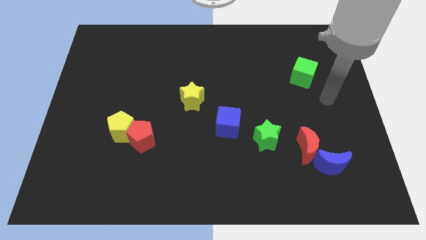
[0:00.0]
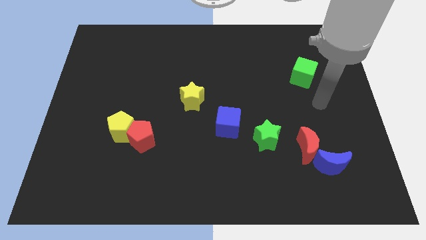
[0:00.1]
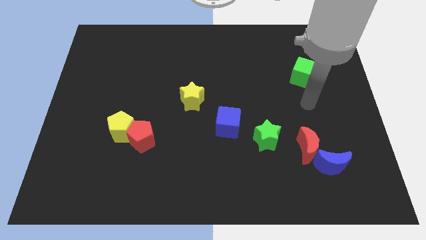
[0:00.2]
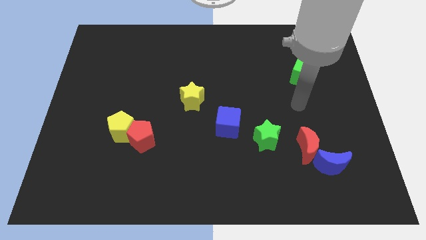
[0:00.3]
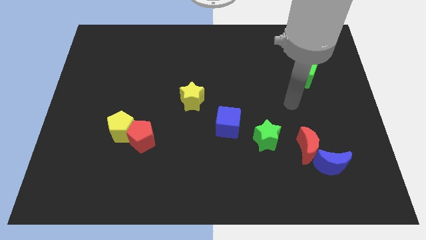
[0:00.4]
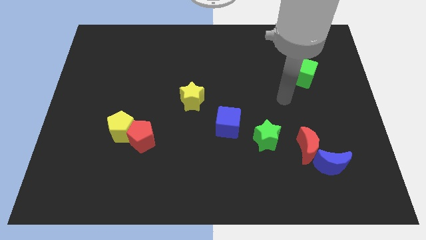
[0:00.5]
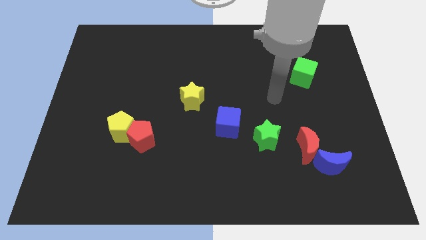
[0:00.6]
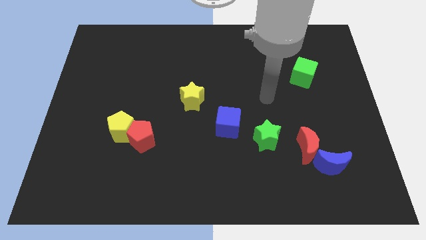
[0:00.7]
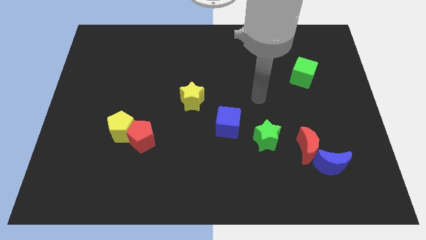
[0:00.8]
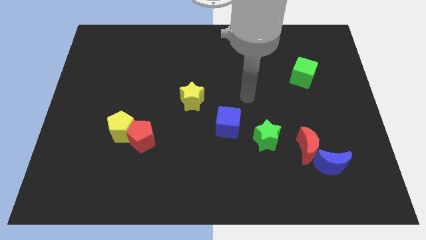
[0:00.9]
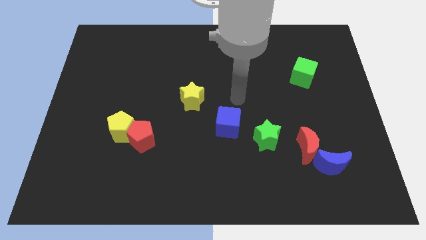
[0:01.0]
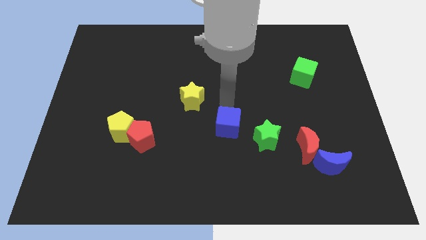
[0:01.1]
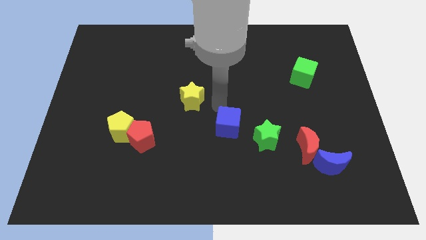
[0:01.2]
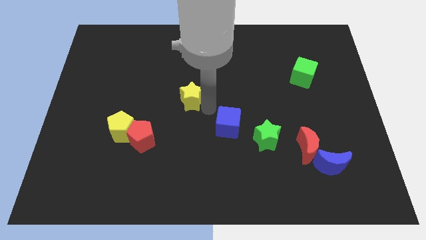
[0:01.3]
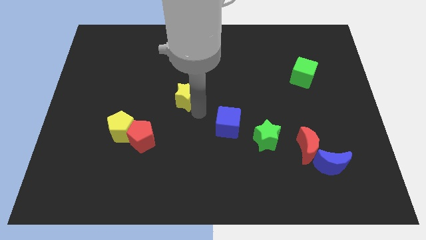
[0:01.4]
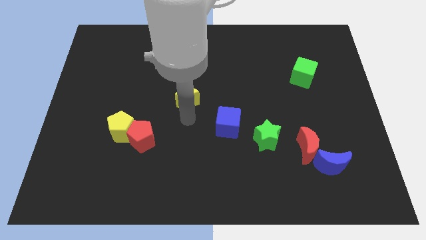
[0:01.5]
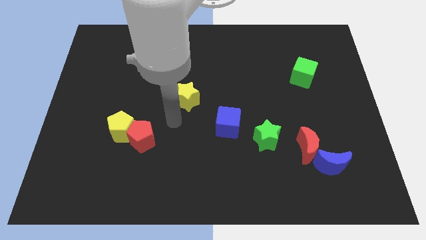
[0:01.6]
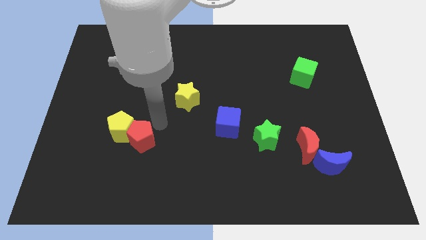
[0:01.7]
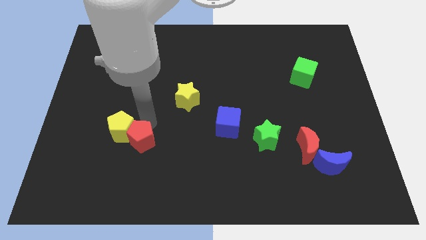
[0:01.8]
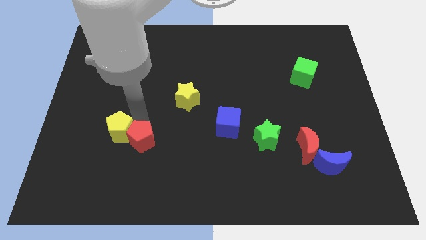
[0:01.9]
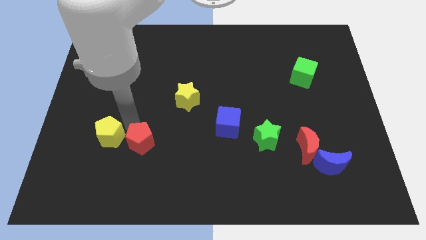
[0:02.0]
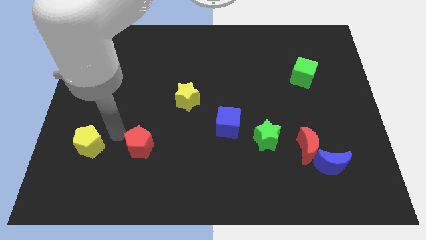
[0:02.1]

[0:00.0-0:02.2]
move the red pentagon away from the yellow pentagon

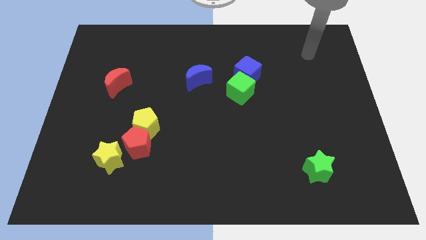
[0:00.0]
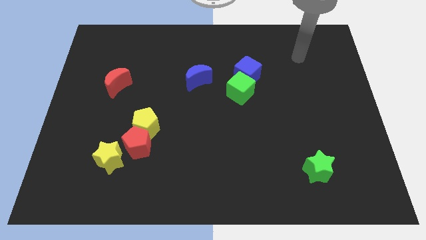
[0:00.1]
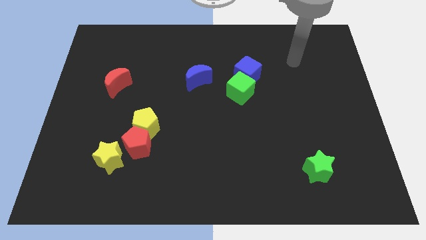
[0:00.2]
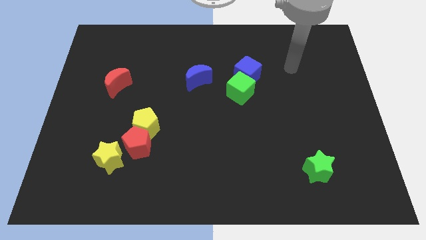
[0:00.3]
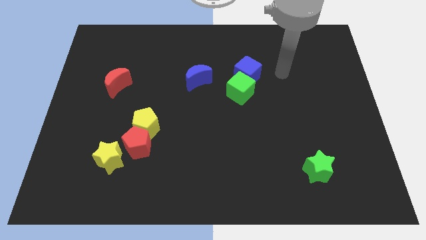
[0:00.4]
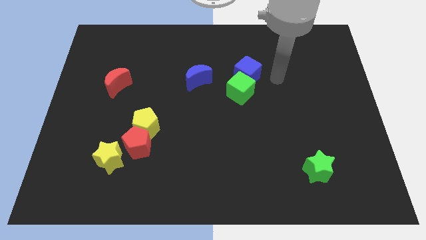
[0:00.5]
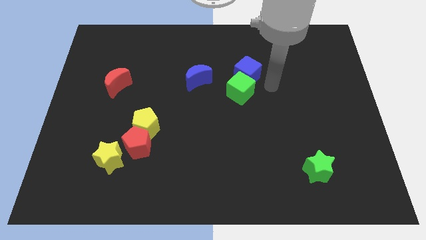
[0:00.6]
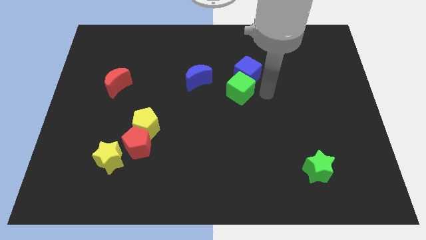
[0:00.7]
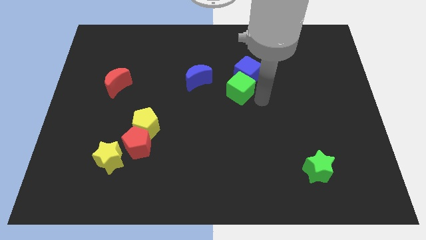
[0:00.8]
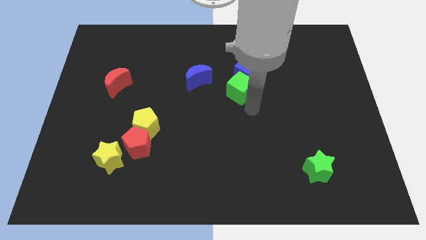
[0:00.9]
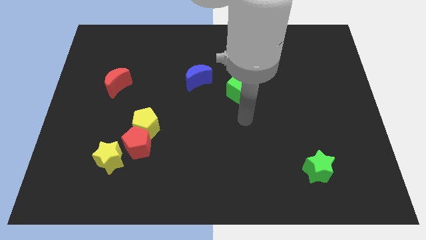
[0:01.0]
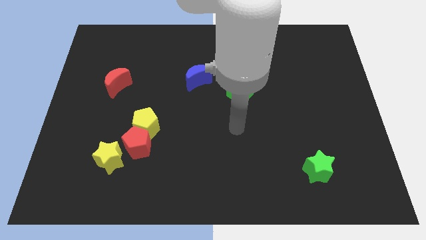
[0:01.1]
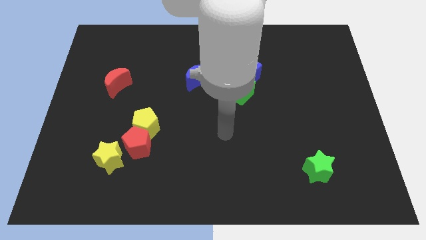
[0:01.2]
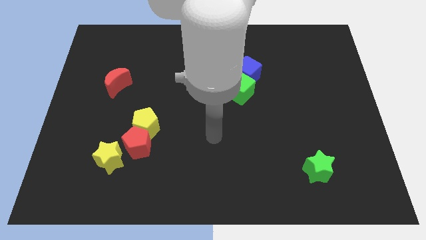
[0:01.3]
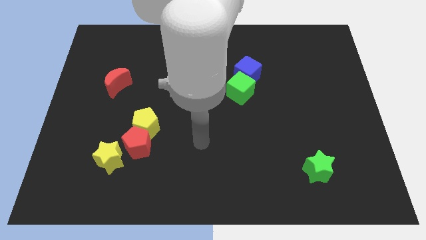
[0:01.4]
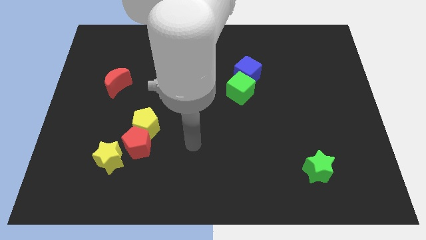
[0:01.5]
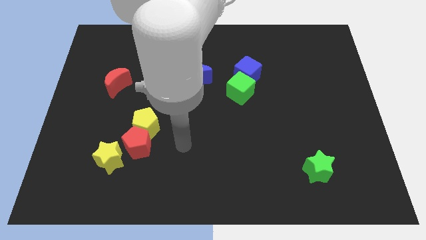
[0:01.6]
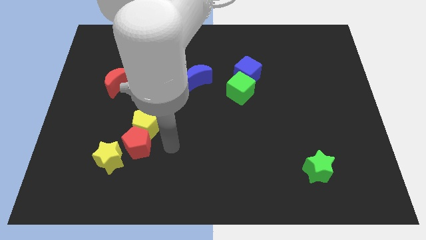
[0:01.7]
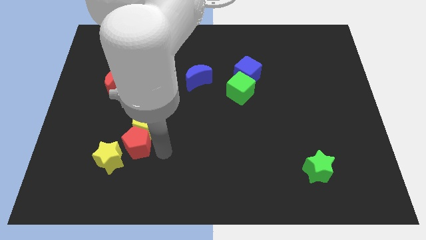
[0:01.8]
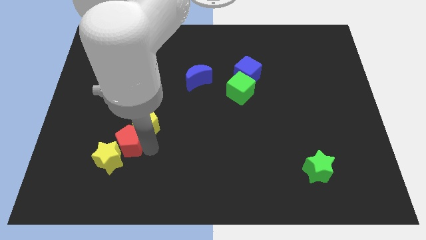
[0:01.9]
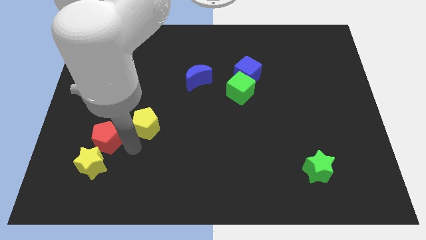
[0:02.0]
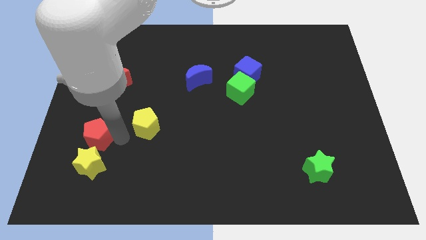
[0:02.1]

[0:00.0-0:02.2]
move the yellow pentagon away from the red pentagon

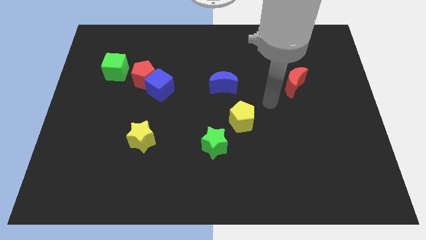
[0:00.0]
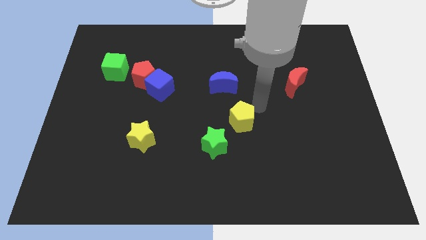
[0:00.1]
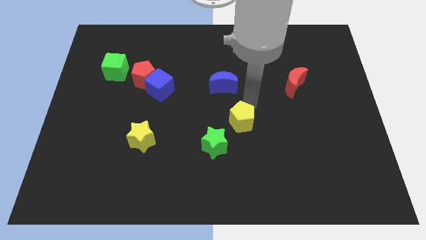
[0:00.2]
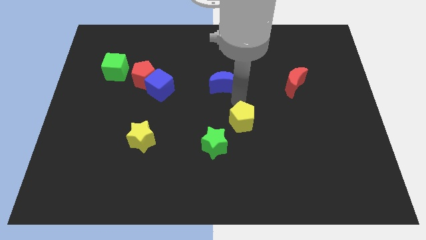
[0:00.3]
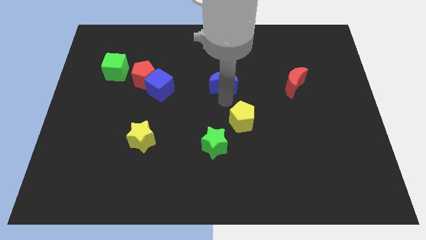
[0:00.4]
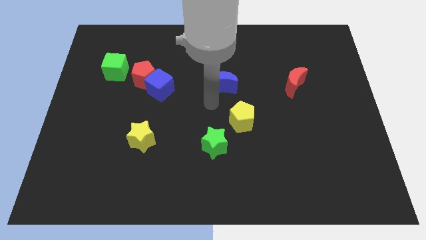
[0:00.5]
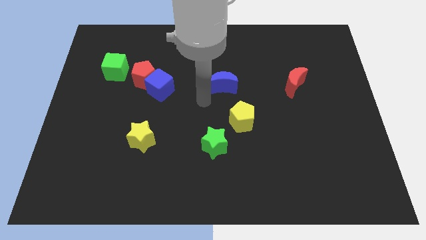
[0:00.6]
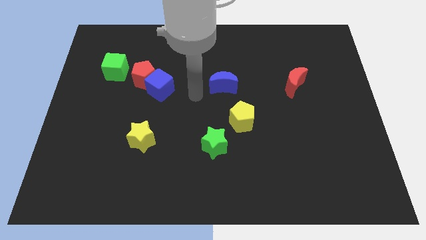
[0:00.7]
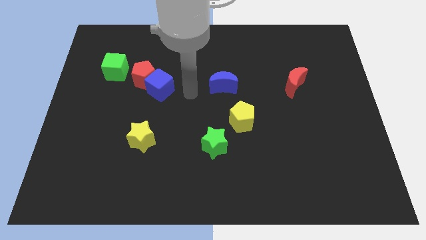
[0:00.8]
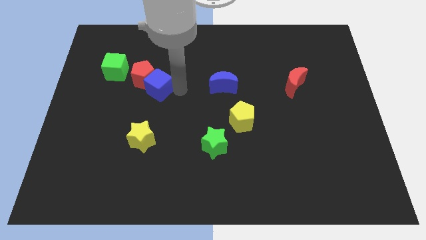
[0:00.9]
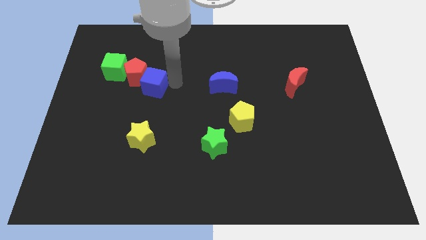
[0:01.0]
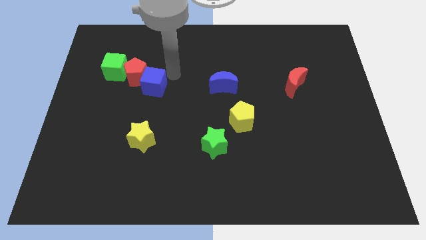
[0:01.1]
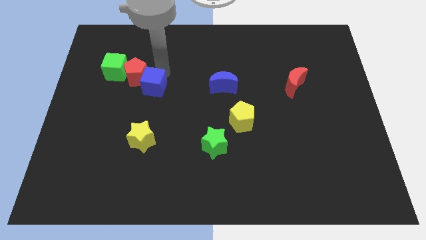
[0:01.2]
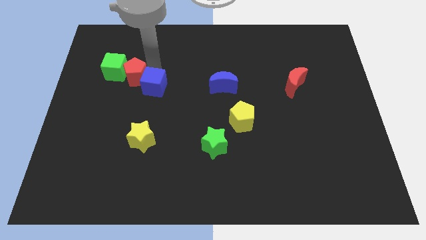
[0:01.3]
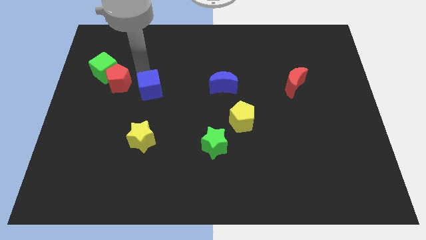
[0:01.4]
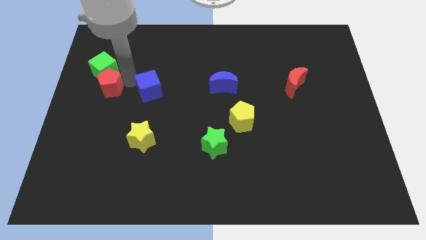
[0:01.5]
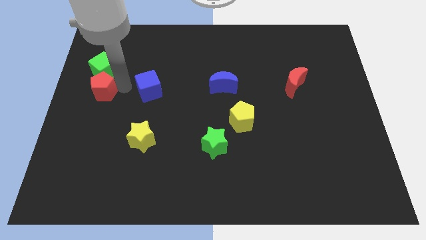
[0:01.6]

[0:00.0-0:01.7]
pull the blue cube apart from the red pentagon

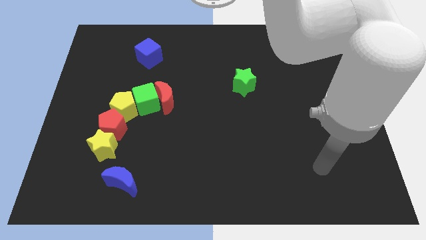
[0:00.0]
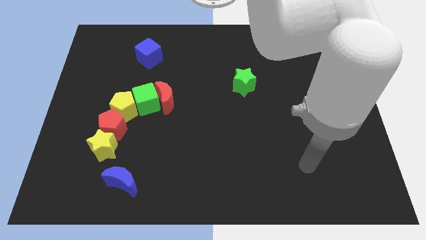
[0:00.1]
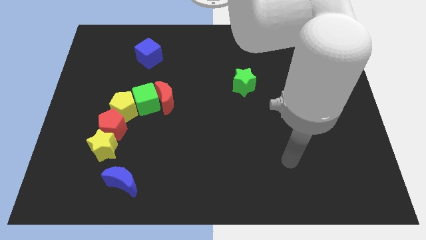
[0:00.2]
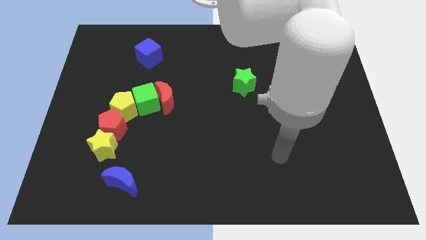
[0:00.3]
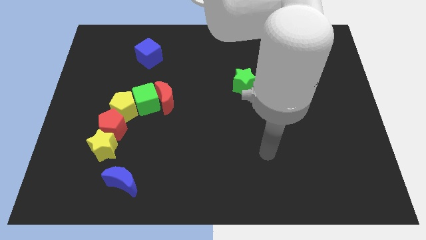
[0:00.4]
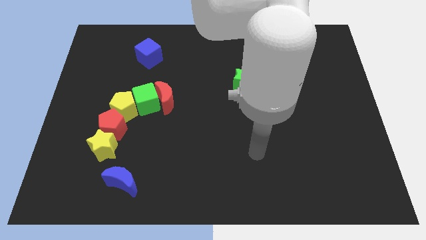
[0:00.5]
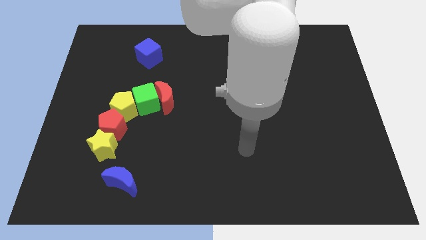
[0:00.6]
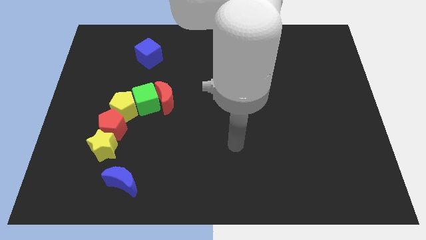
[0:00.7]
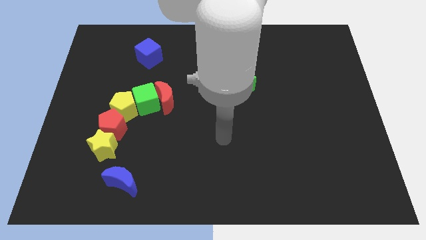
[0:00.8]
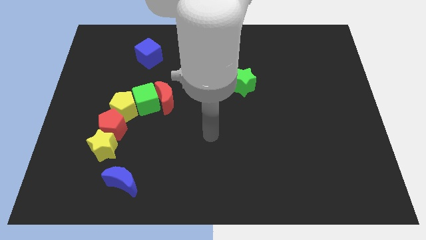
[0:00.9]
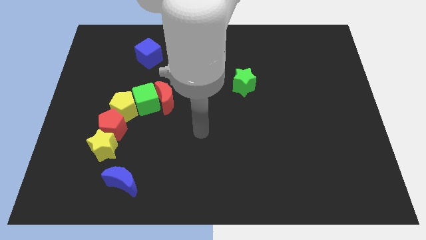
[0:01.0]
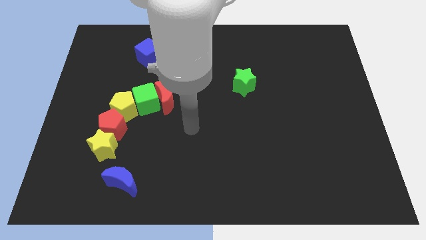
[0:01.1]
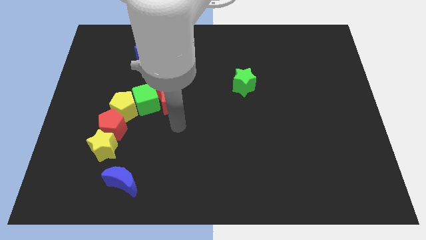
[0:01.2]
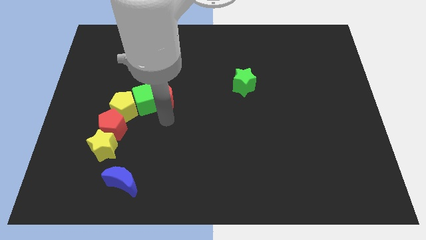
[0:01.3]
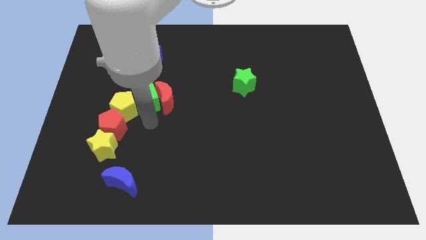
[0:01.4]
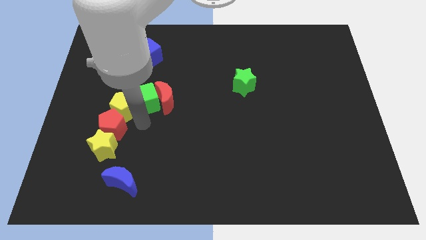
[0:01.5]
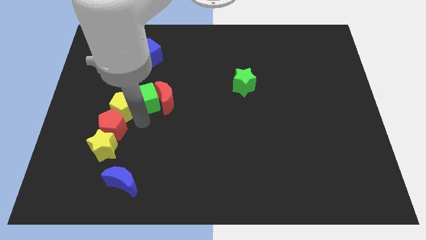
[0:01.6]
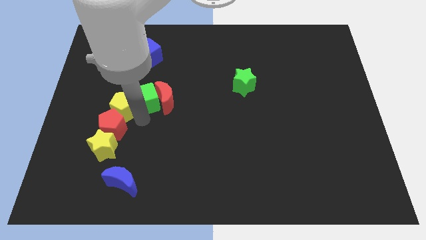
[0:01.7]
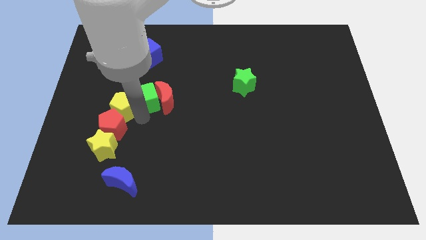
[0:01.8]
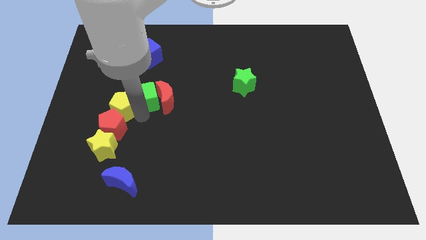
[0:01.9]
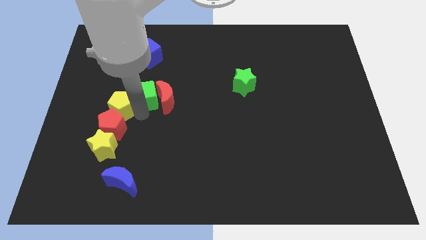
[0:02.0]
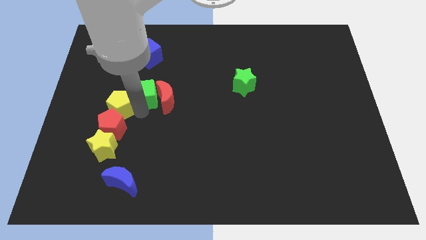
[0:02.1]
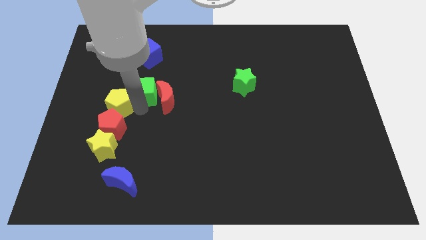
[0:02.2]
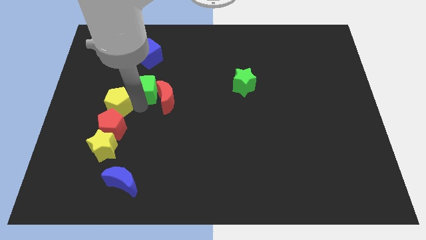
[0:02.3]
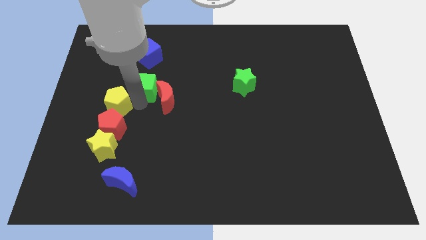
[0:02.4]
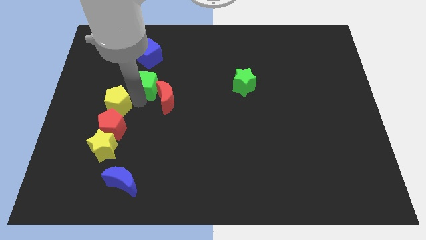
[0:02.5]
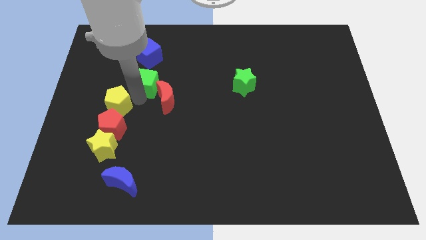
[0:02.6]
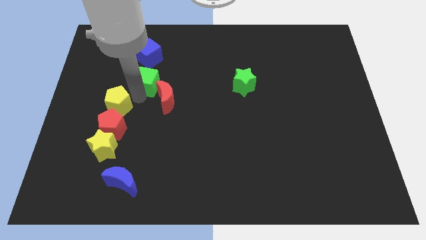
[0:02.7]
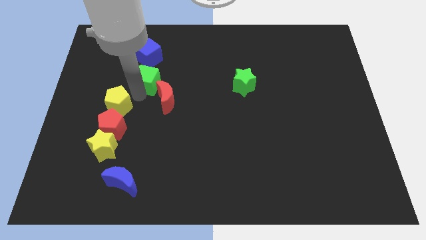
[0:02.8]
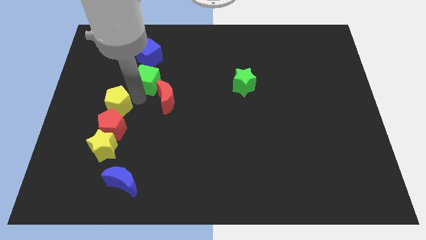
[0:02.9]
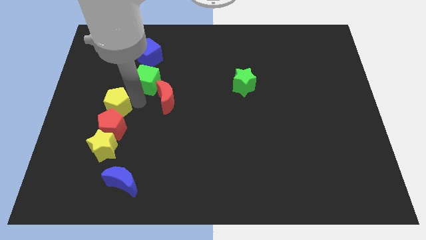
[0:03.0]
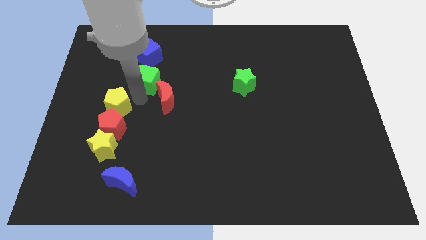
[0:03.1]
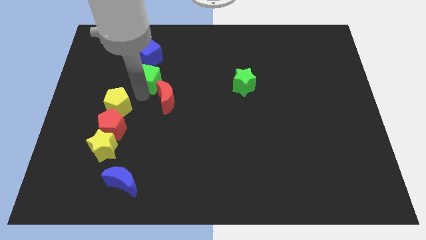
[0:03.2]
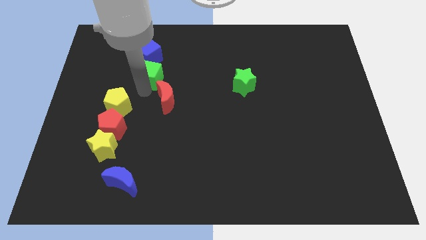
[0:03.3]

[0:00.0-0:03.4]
move the green cube away from the group of blocks
